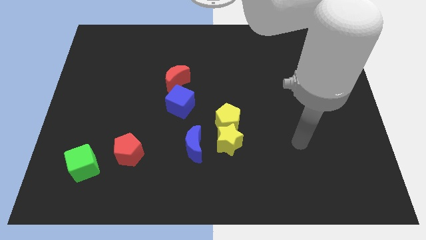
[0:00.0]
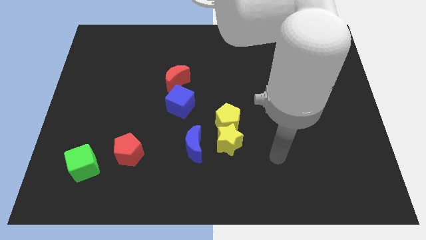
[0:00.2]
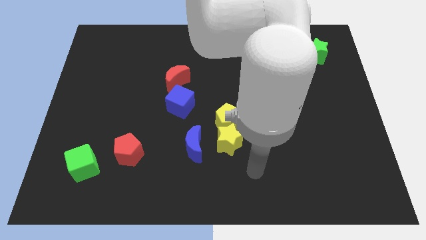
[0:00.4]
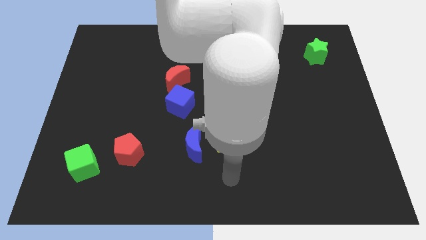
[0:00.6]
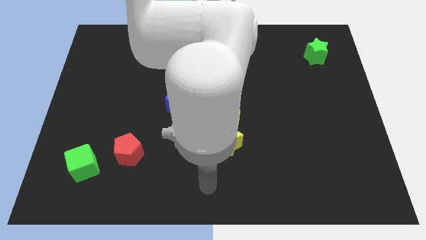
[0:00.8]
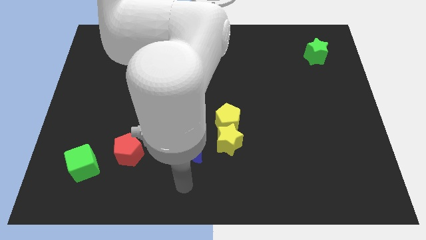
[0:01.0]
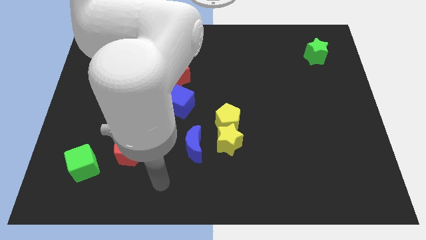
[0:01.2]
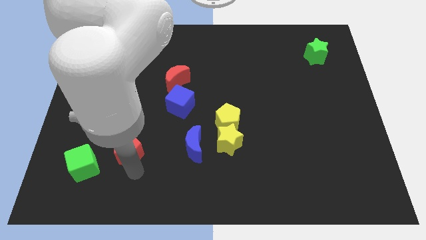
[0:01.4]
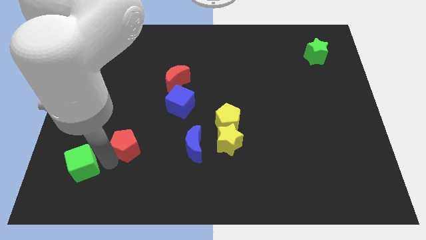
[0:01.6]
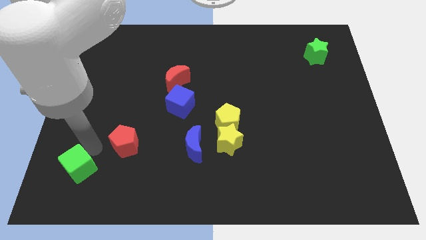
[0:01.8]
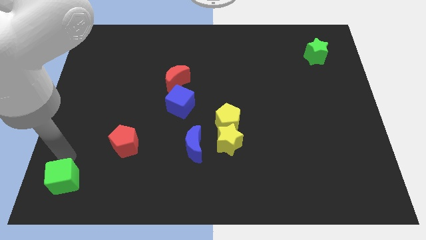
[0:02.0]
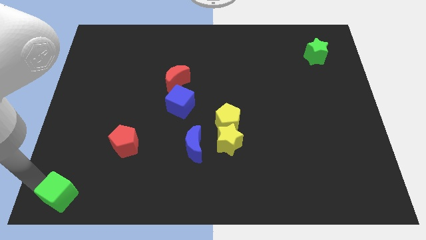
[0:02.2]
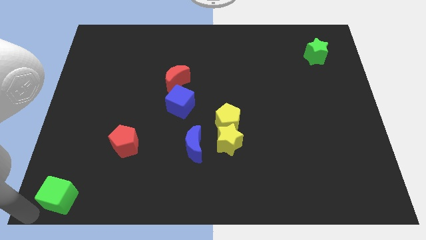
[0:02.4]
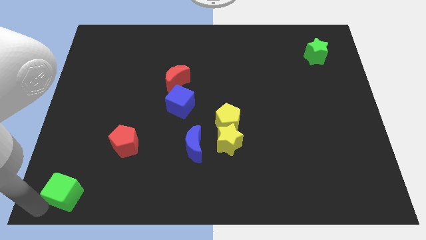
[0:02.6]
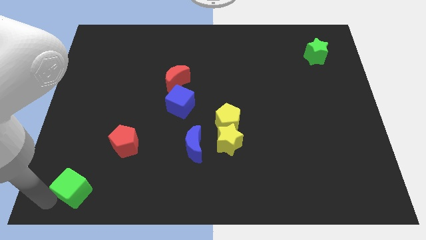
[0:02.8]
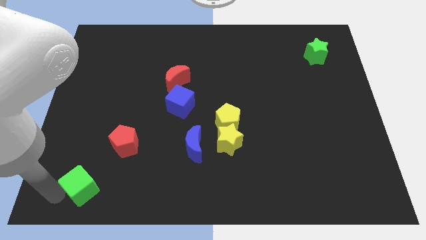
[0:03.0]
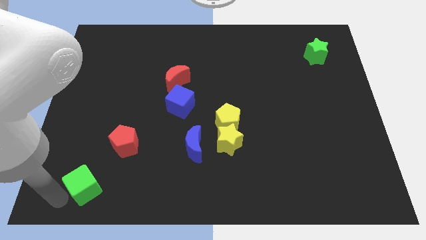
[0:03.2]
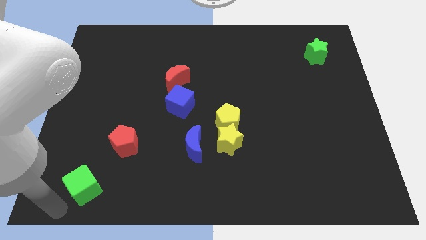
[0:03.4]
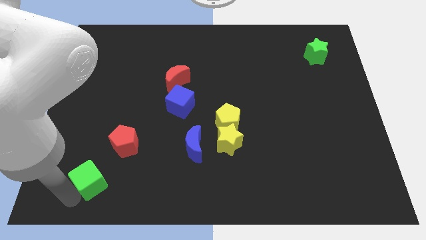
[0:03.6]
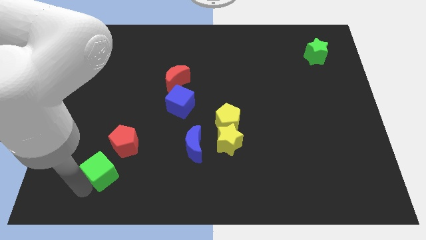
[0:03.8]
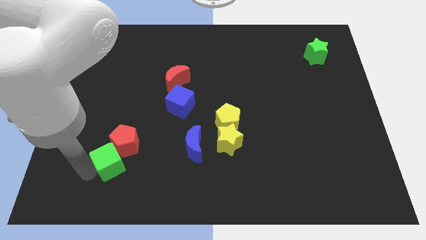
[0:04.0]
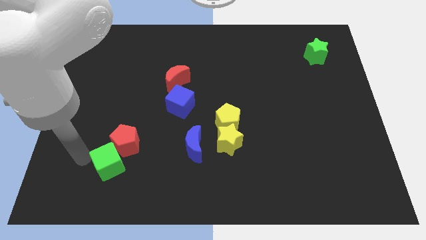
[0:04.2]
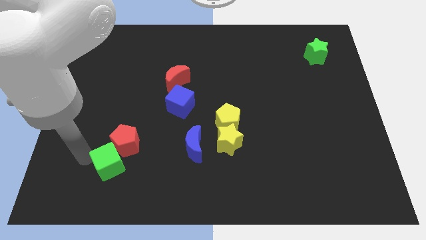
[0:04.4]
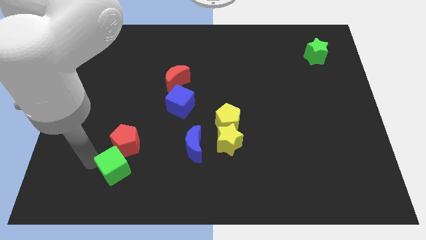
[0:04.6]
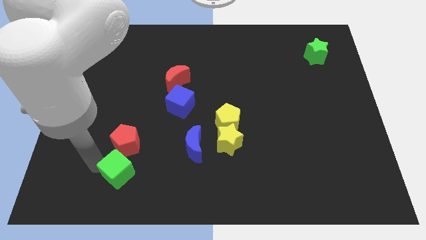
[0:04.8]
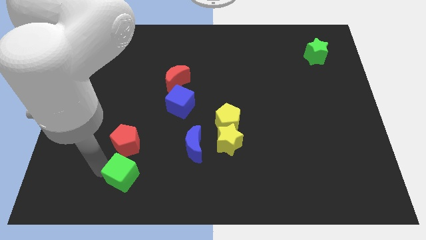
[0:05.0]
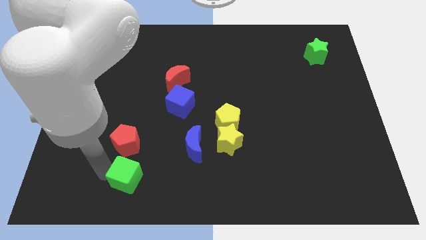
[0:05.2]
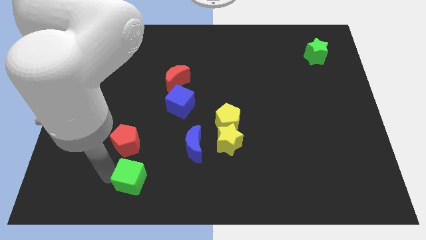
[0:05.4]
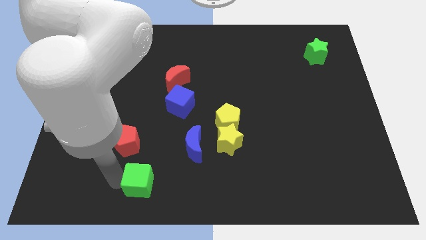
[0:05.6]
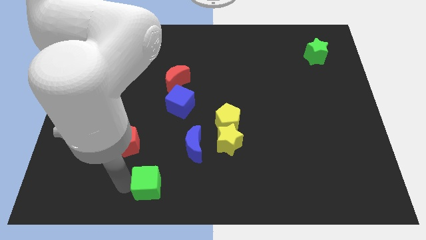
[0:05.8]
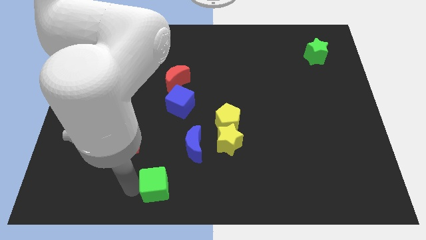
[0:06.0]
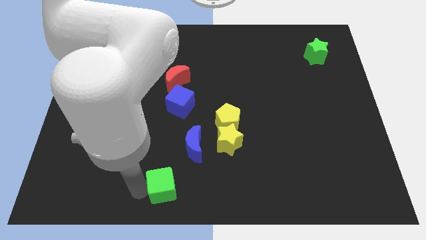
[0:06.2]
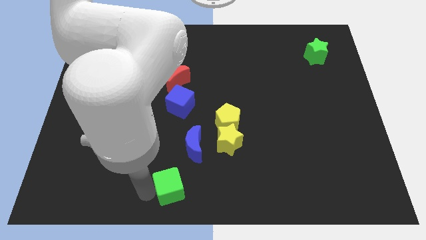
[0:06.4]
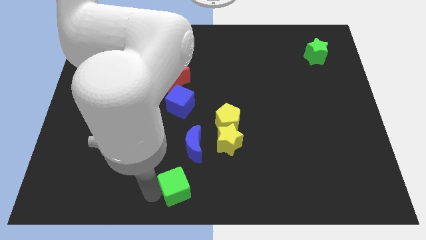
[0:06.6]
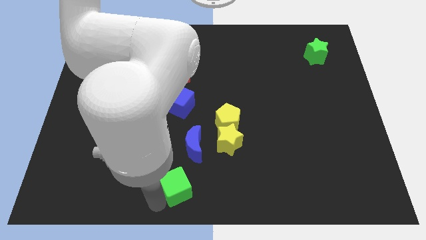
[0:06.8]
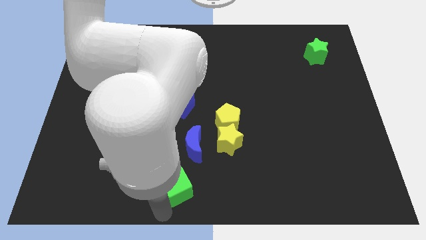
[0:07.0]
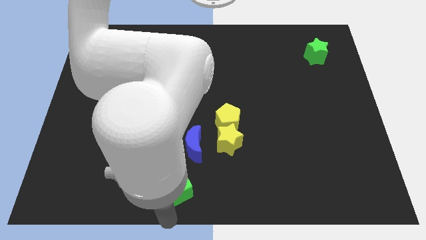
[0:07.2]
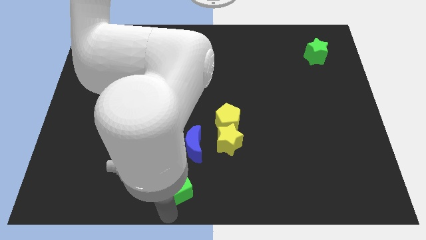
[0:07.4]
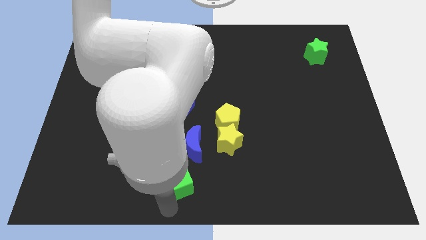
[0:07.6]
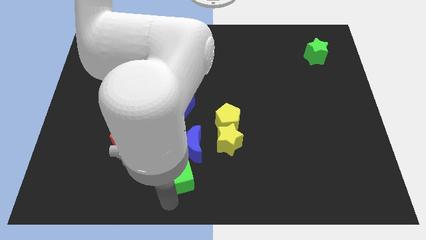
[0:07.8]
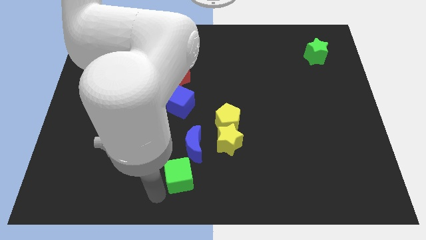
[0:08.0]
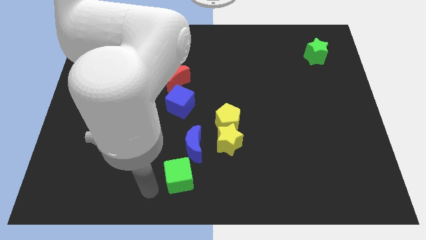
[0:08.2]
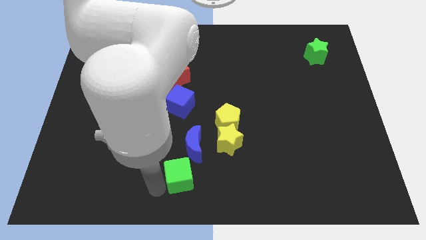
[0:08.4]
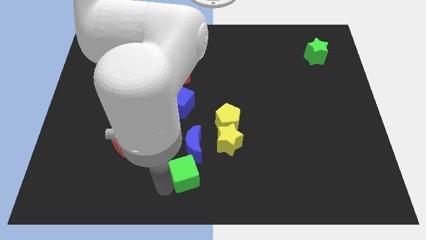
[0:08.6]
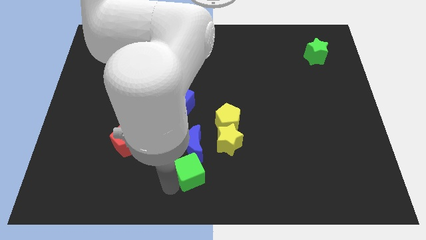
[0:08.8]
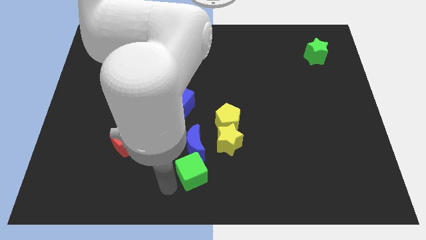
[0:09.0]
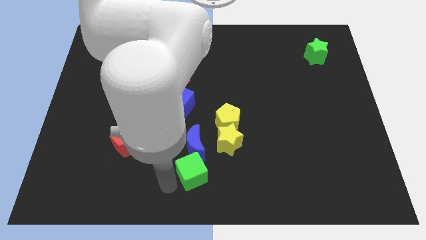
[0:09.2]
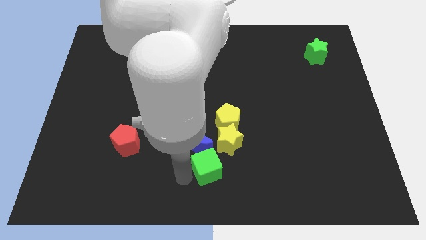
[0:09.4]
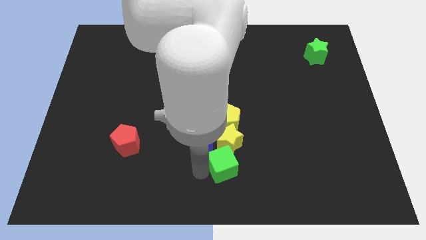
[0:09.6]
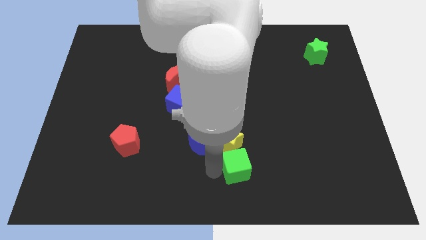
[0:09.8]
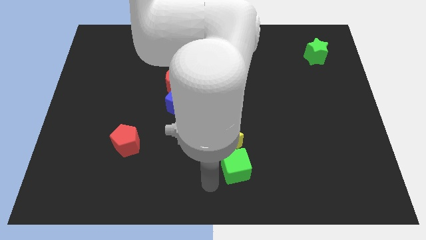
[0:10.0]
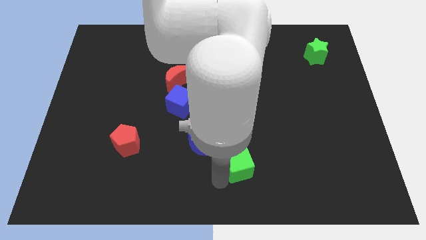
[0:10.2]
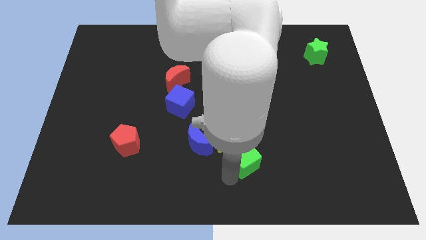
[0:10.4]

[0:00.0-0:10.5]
move the green cube to the right side of the yellow star

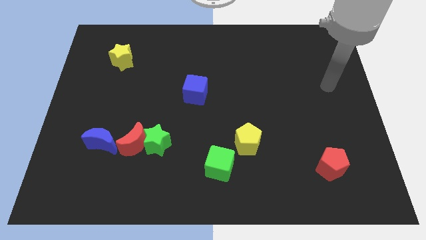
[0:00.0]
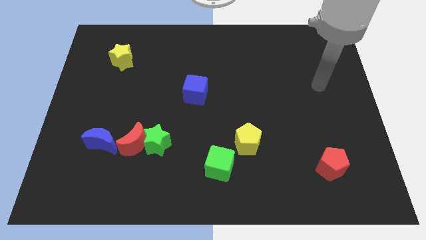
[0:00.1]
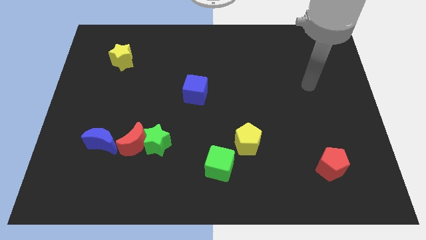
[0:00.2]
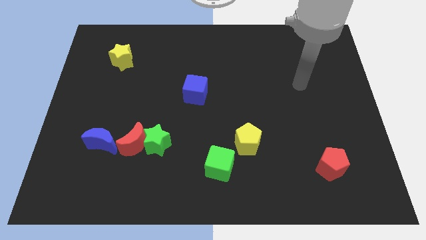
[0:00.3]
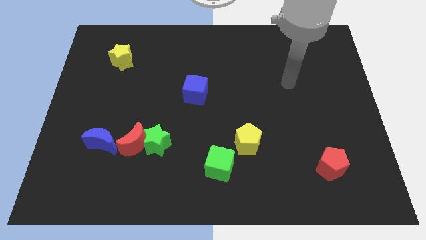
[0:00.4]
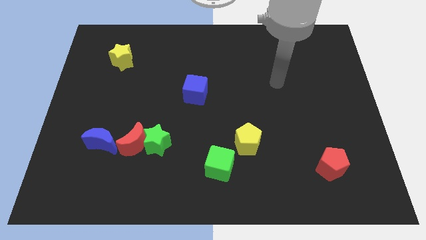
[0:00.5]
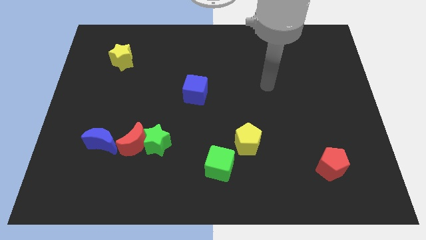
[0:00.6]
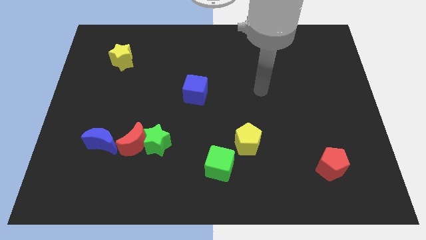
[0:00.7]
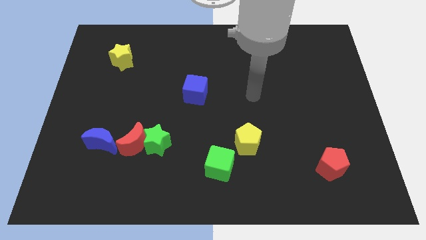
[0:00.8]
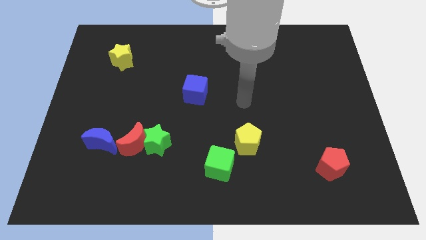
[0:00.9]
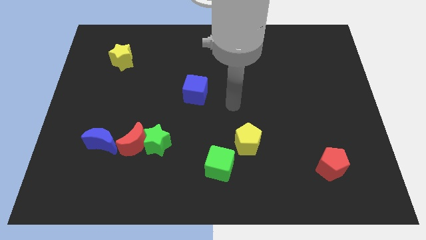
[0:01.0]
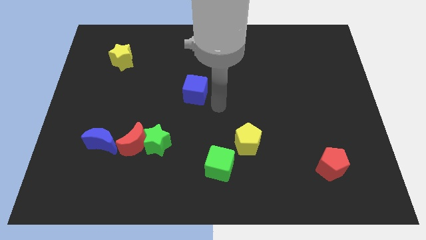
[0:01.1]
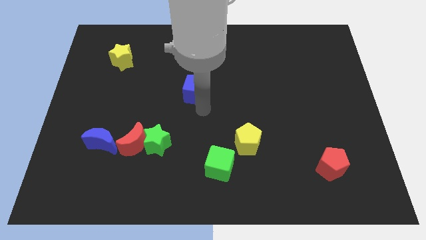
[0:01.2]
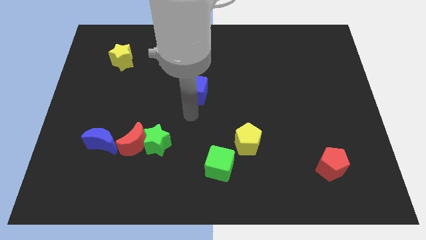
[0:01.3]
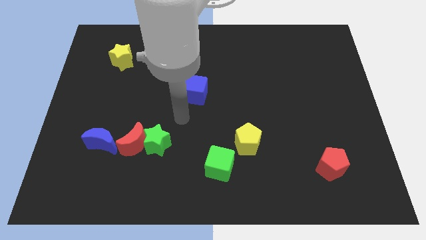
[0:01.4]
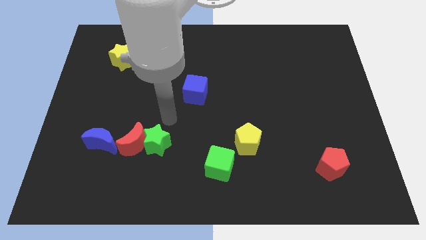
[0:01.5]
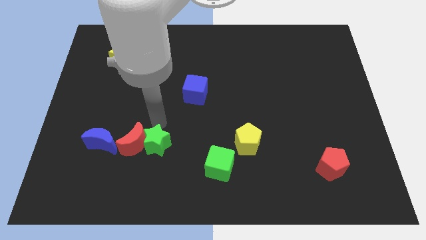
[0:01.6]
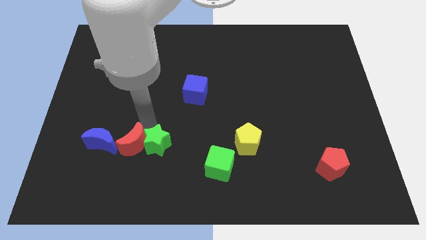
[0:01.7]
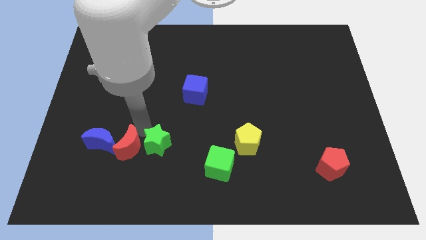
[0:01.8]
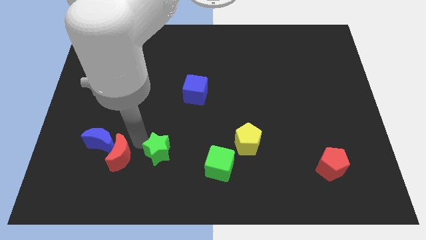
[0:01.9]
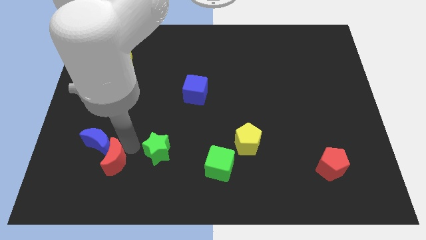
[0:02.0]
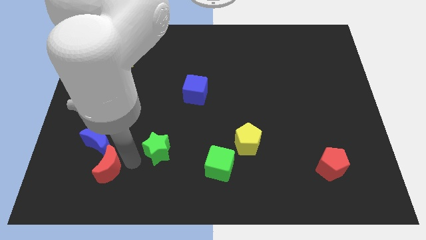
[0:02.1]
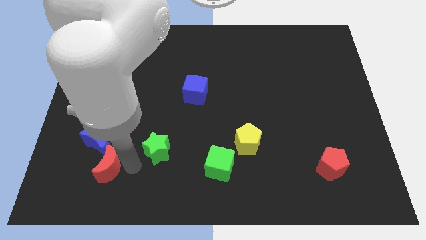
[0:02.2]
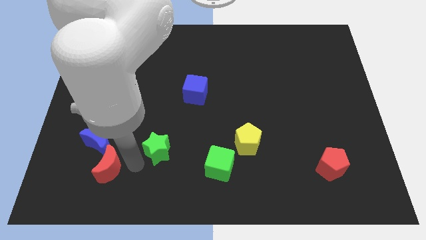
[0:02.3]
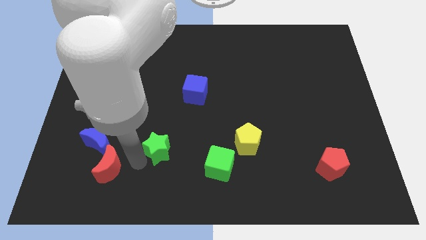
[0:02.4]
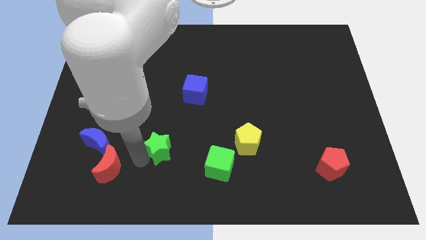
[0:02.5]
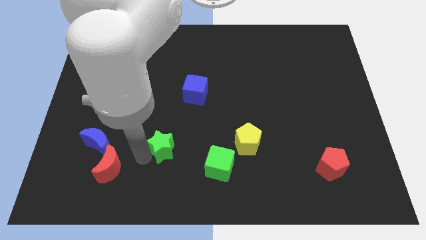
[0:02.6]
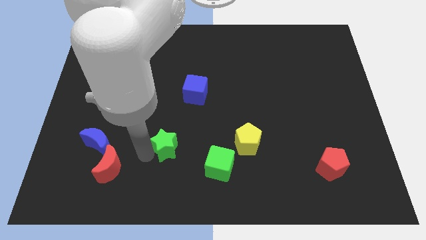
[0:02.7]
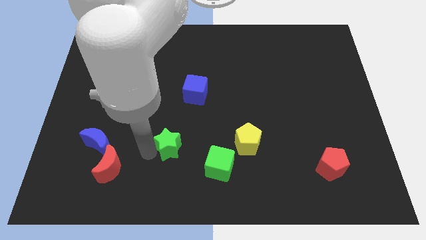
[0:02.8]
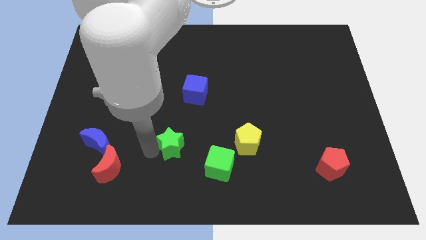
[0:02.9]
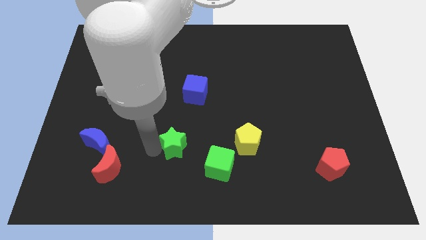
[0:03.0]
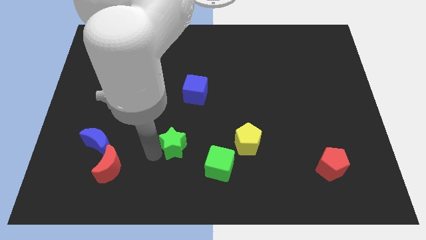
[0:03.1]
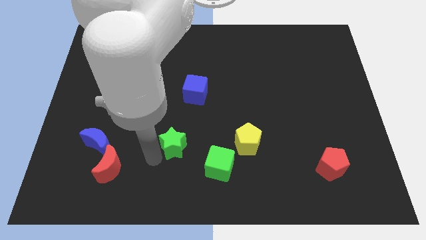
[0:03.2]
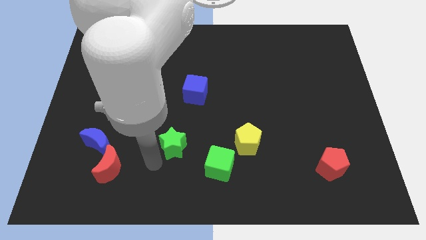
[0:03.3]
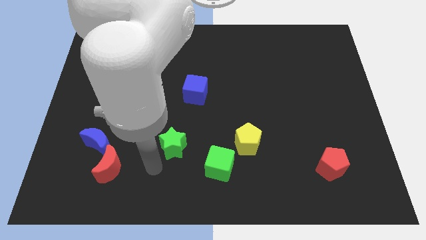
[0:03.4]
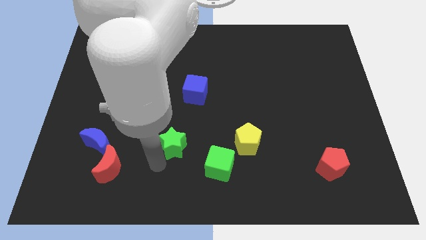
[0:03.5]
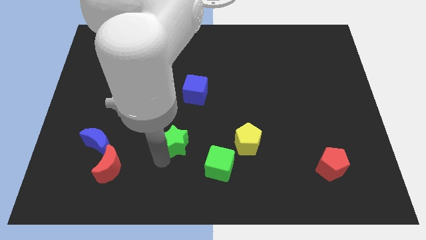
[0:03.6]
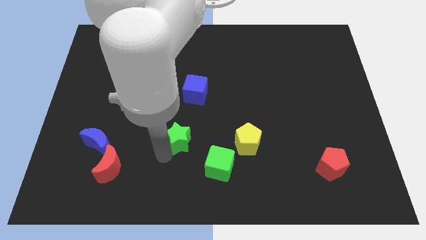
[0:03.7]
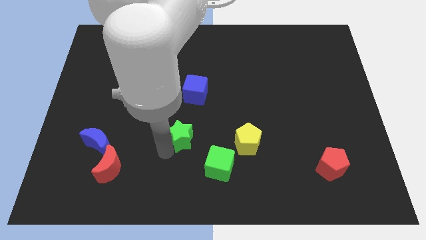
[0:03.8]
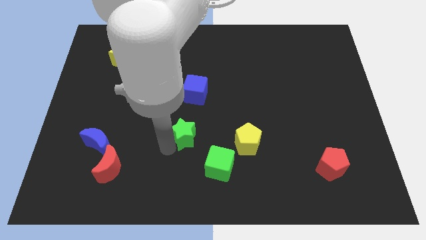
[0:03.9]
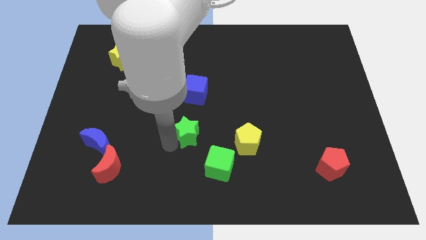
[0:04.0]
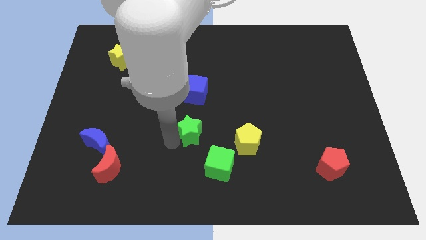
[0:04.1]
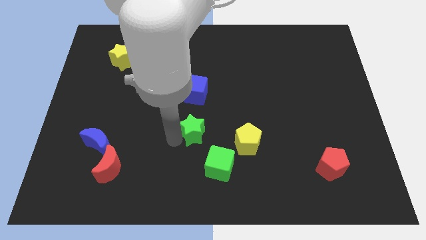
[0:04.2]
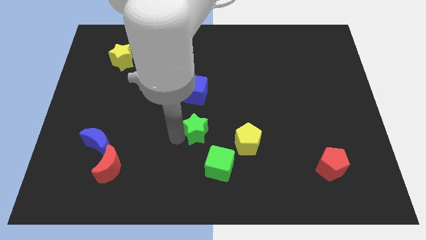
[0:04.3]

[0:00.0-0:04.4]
slide the green star above the green cube
